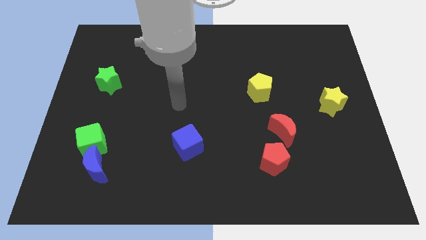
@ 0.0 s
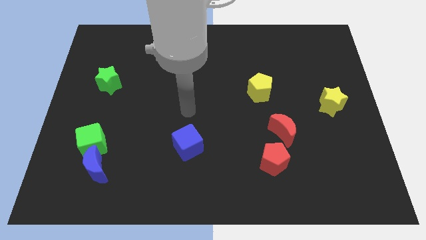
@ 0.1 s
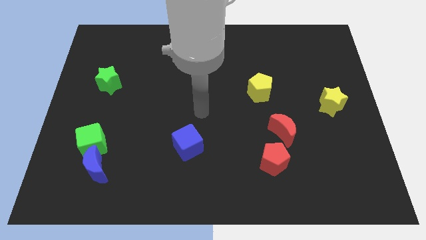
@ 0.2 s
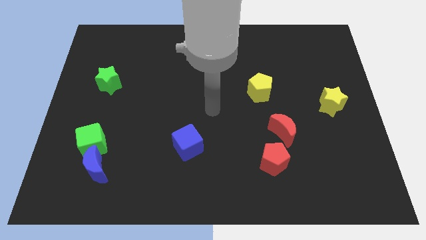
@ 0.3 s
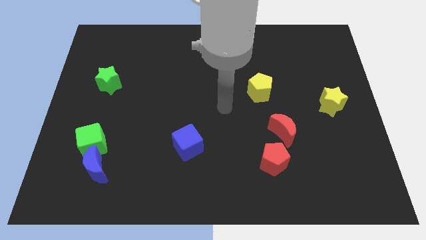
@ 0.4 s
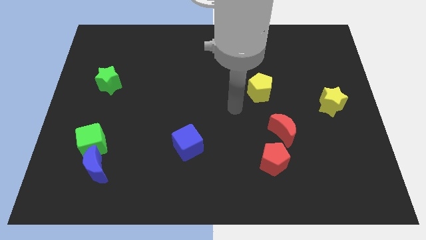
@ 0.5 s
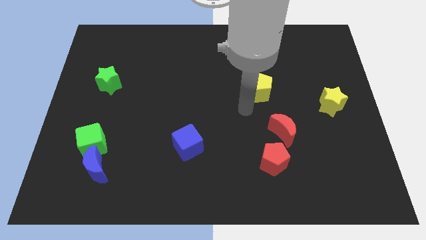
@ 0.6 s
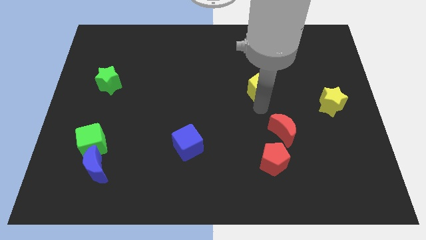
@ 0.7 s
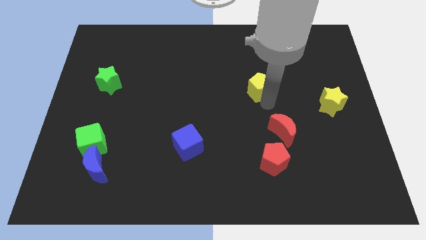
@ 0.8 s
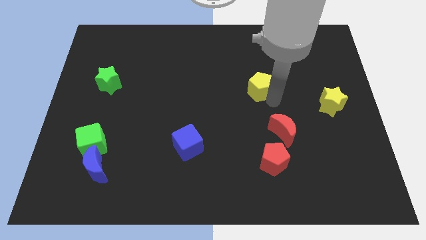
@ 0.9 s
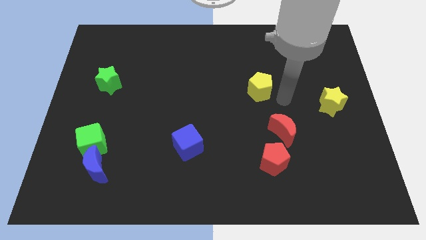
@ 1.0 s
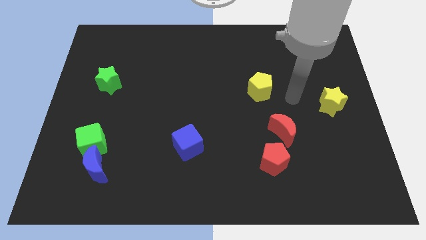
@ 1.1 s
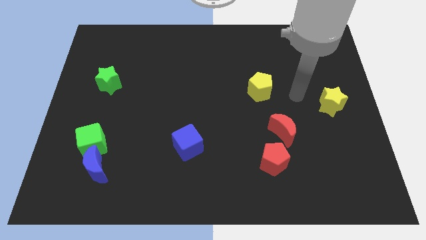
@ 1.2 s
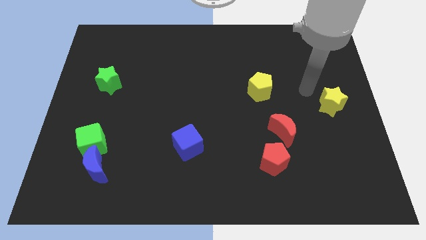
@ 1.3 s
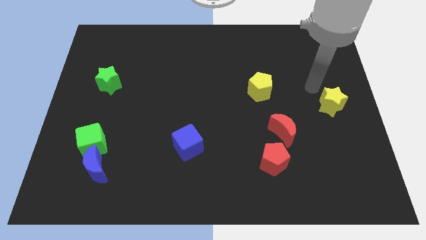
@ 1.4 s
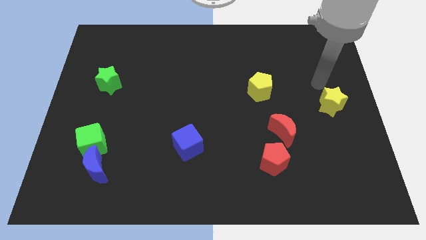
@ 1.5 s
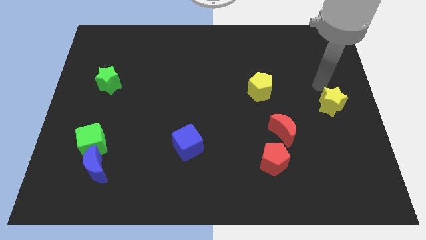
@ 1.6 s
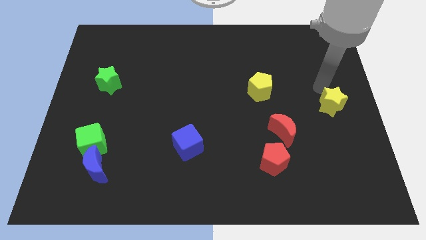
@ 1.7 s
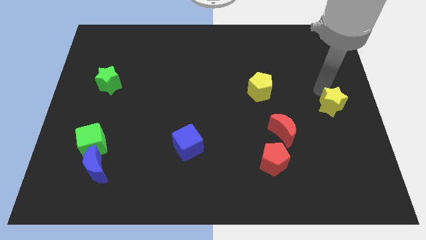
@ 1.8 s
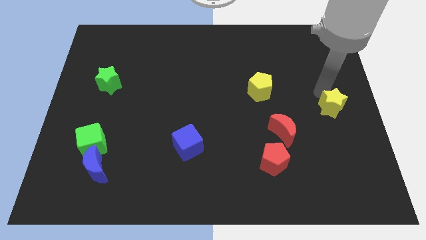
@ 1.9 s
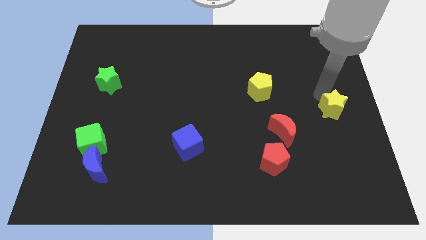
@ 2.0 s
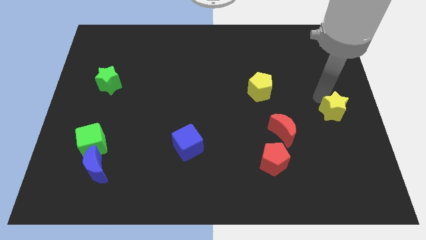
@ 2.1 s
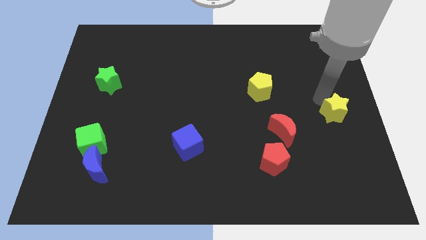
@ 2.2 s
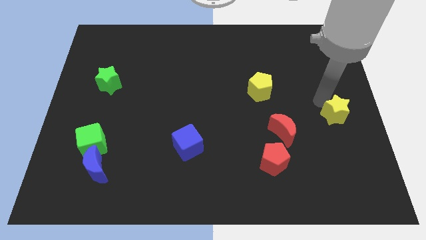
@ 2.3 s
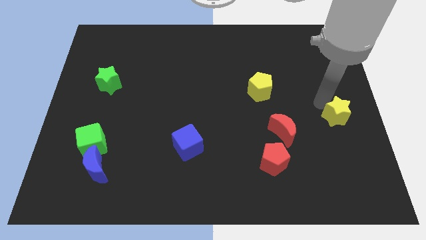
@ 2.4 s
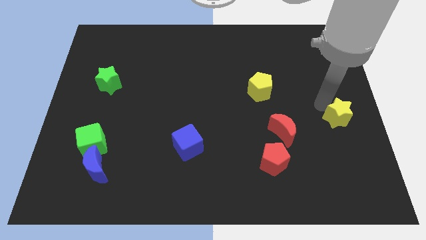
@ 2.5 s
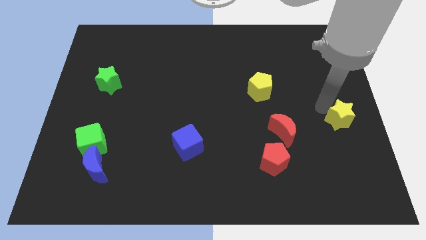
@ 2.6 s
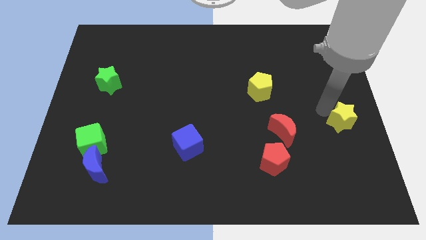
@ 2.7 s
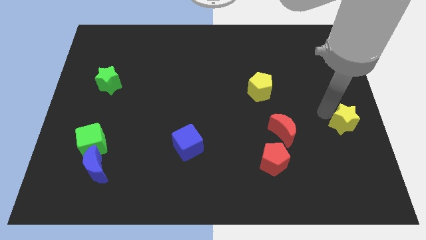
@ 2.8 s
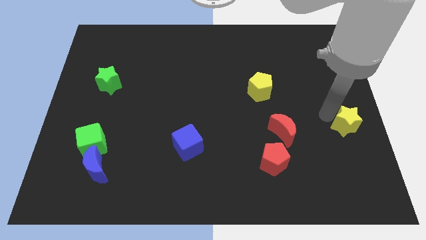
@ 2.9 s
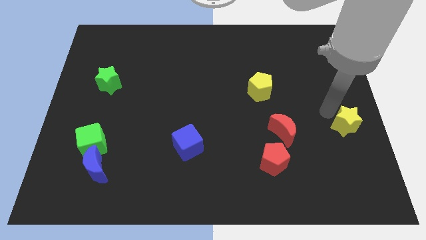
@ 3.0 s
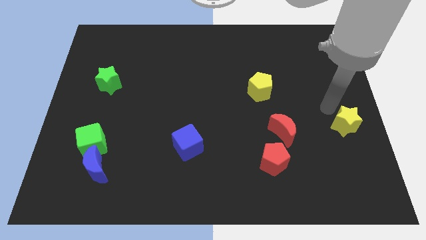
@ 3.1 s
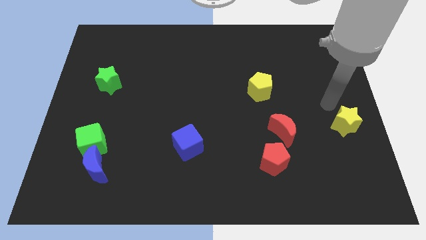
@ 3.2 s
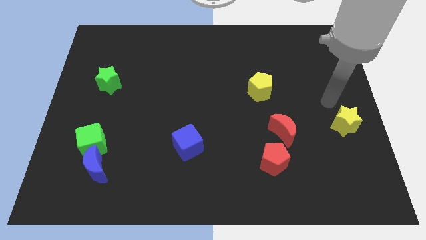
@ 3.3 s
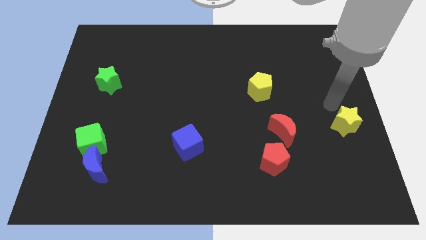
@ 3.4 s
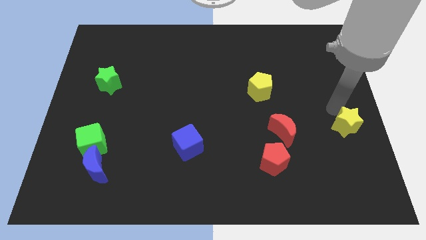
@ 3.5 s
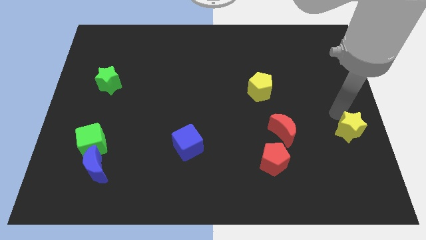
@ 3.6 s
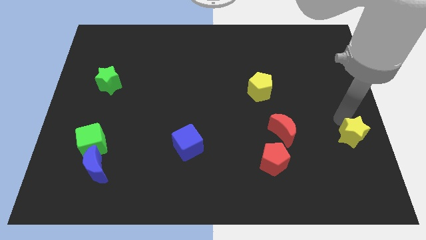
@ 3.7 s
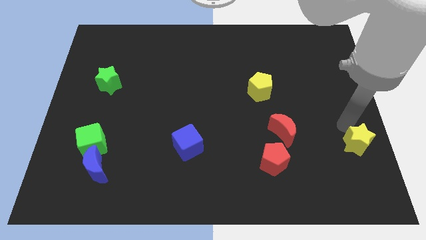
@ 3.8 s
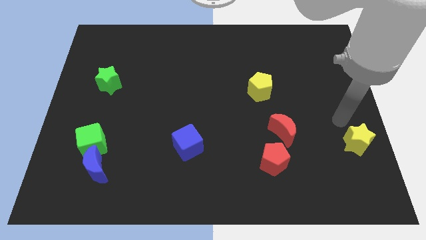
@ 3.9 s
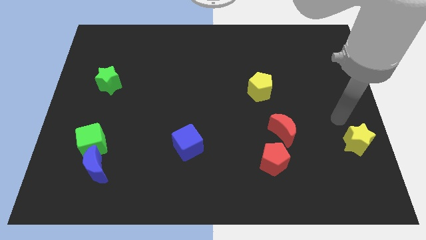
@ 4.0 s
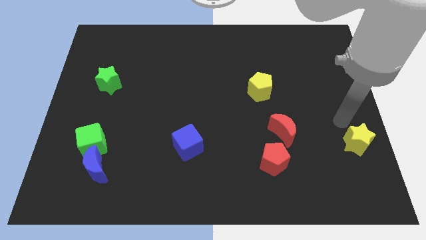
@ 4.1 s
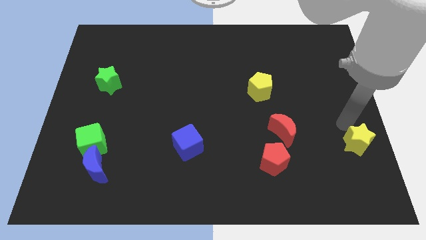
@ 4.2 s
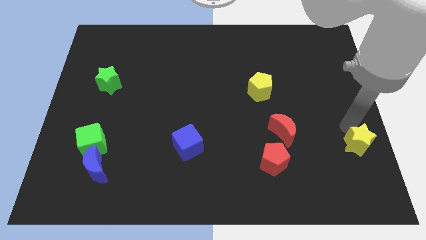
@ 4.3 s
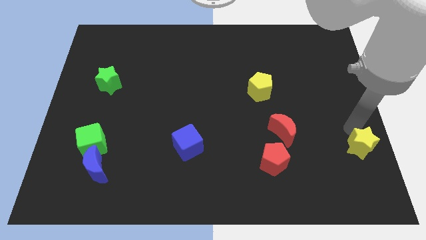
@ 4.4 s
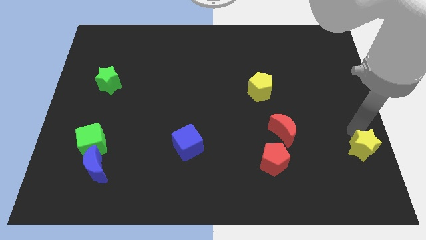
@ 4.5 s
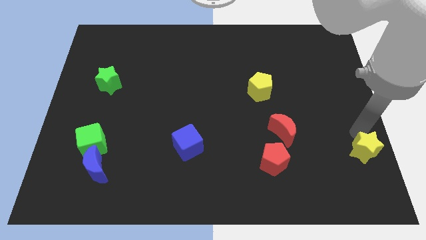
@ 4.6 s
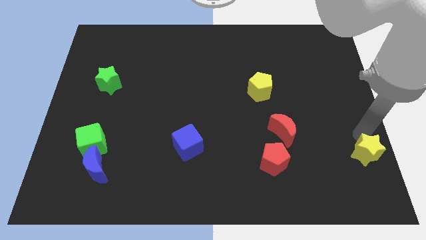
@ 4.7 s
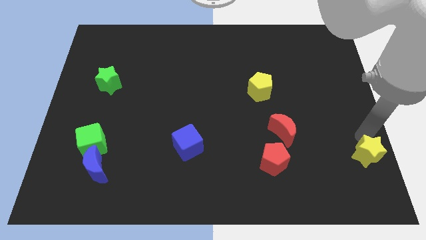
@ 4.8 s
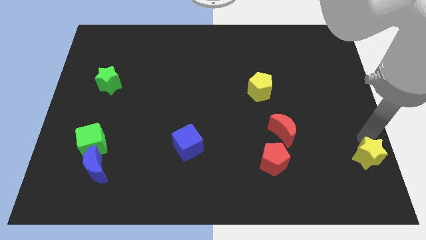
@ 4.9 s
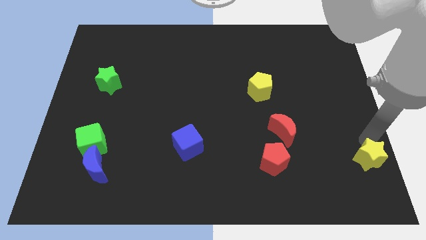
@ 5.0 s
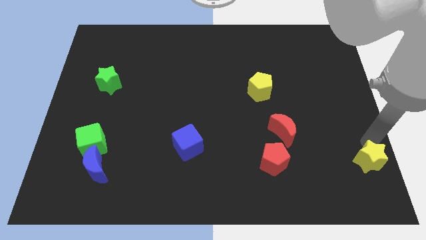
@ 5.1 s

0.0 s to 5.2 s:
move the yellow star to the bottom right of the board

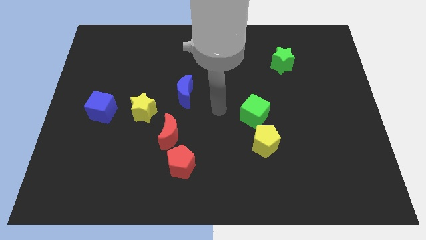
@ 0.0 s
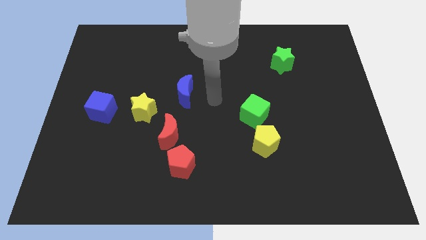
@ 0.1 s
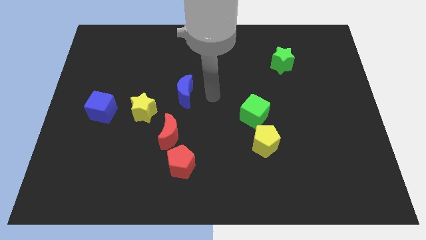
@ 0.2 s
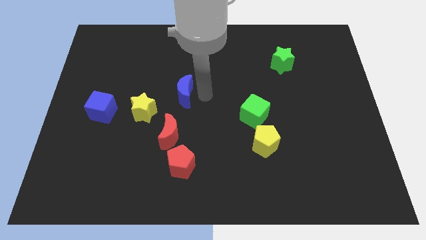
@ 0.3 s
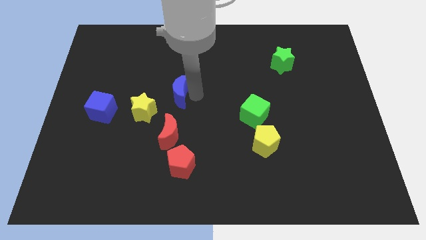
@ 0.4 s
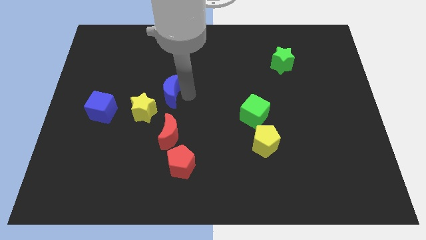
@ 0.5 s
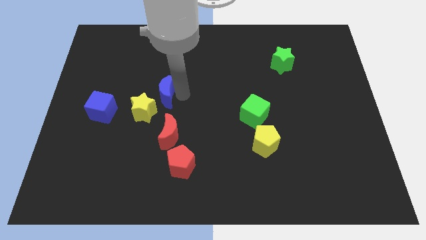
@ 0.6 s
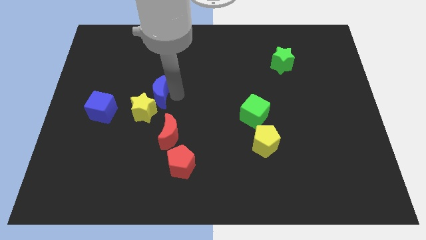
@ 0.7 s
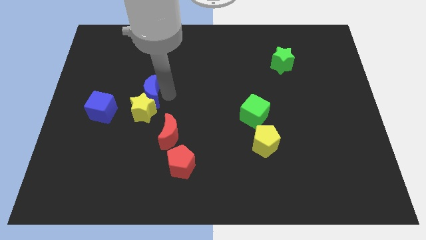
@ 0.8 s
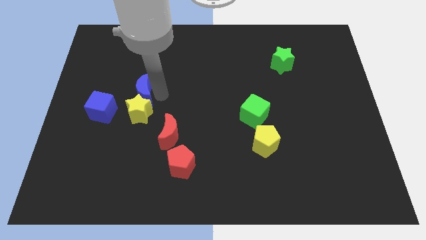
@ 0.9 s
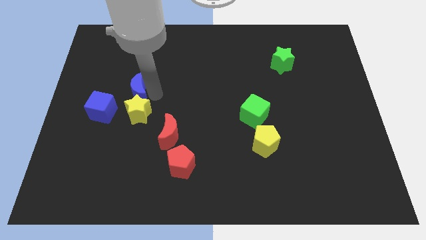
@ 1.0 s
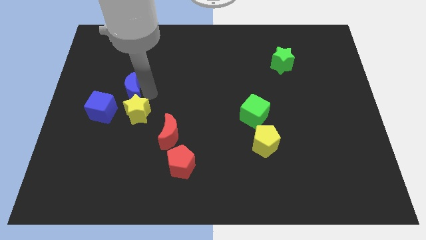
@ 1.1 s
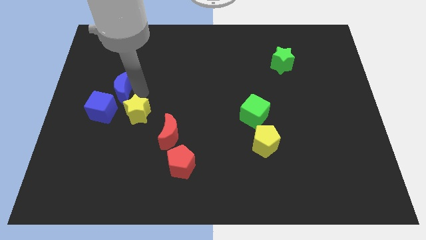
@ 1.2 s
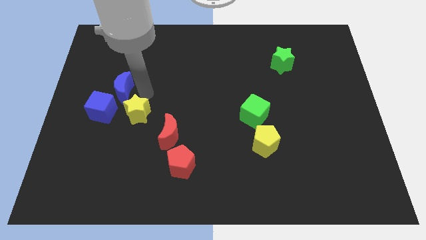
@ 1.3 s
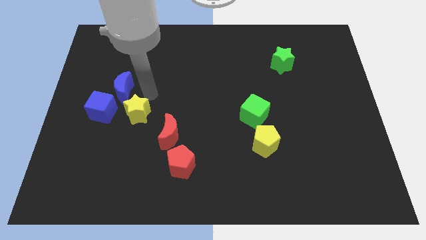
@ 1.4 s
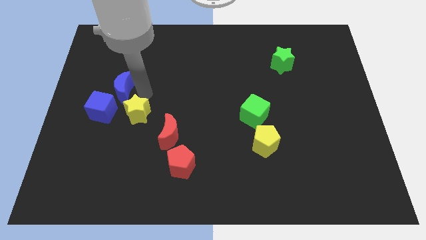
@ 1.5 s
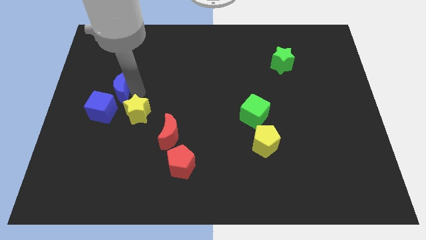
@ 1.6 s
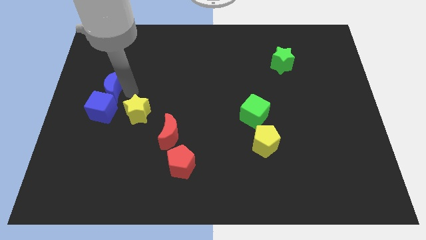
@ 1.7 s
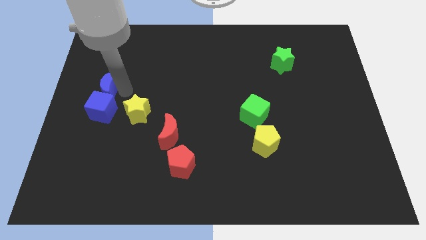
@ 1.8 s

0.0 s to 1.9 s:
slide the blue moon to the left side
